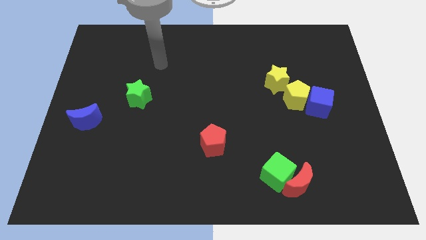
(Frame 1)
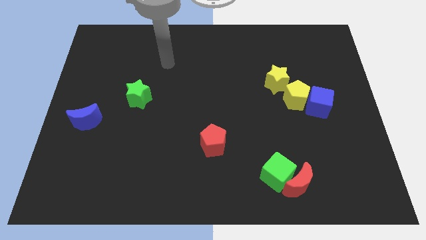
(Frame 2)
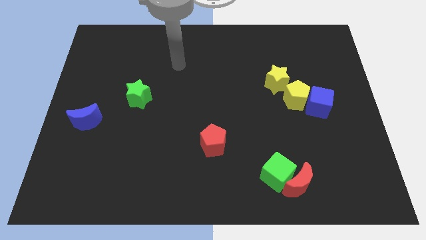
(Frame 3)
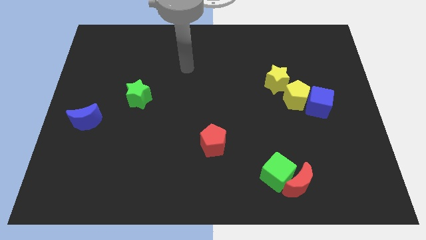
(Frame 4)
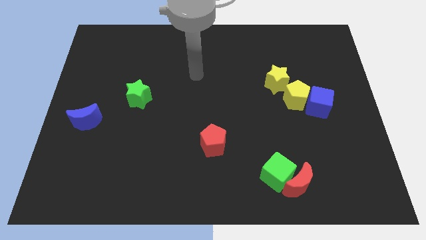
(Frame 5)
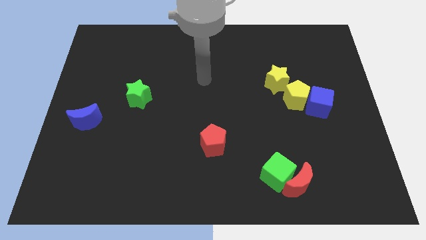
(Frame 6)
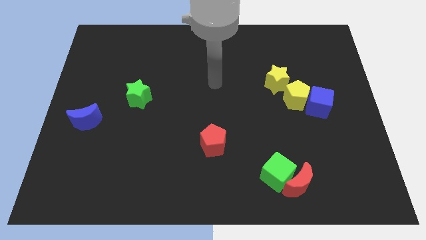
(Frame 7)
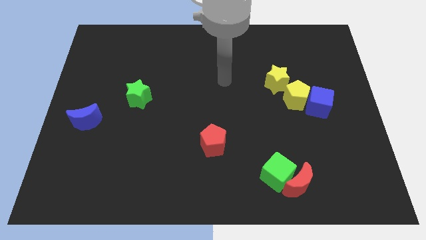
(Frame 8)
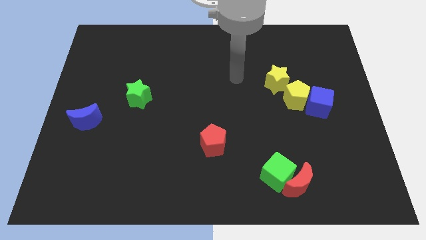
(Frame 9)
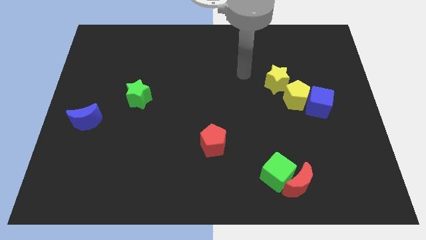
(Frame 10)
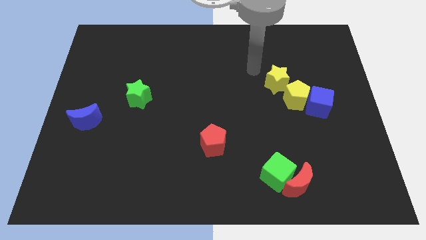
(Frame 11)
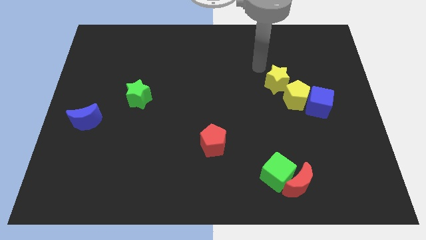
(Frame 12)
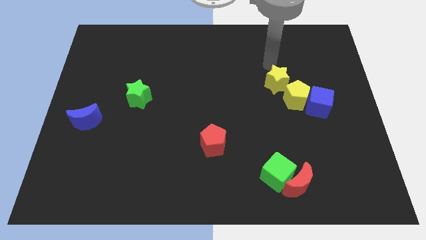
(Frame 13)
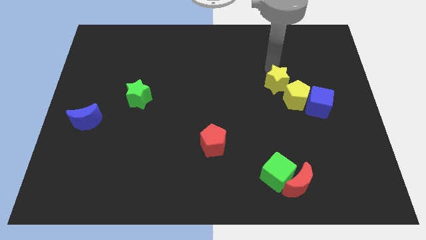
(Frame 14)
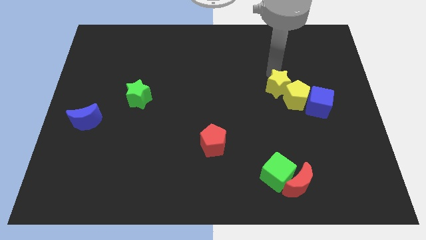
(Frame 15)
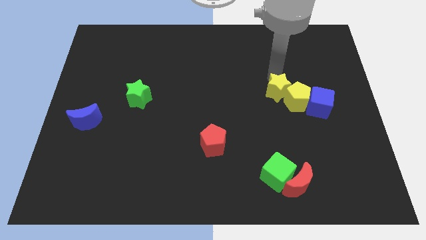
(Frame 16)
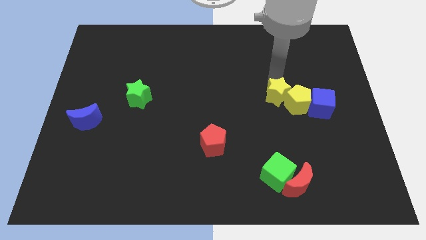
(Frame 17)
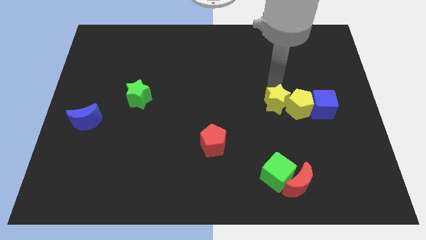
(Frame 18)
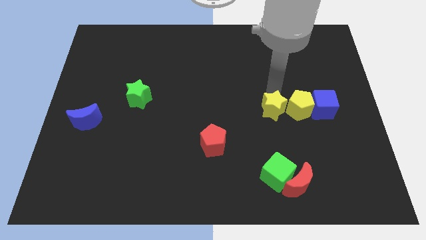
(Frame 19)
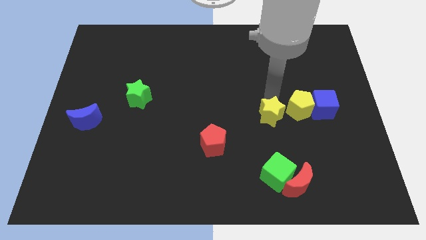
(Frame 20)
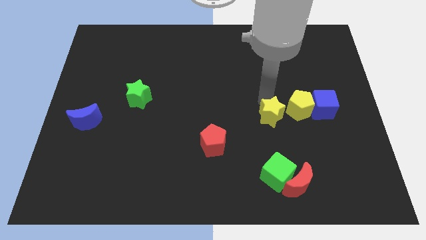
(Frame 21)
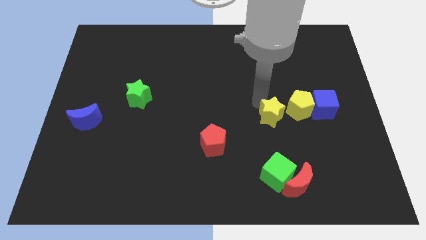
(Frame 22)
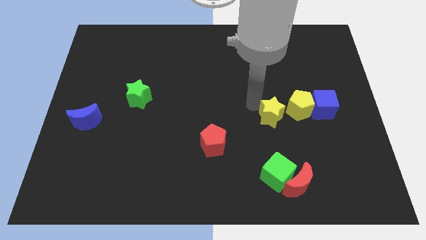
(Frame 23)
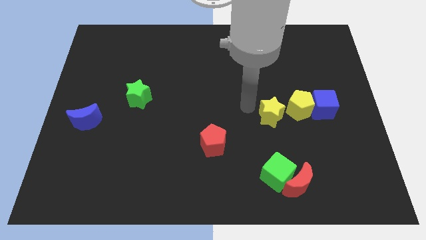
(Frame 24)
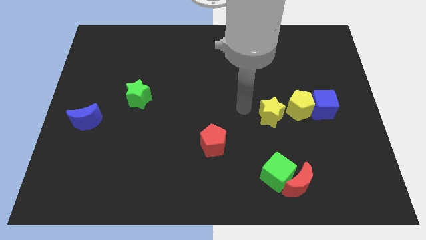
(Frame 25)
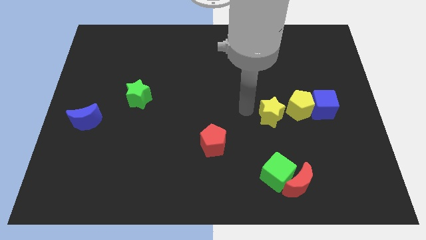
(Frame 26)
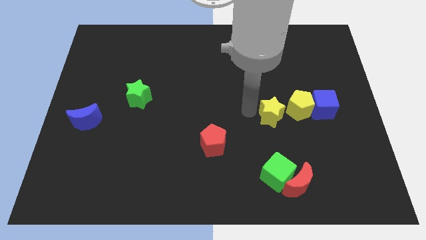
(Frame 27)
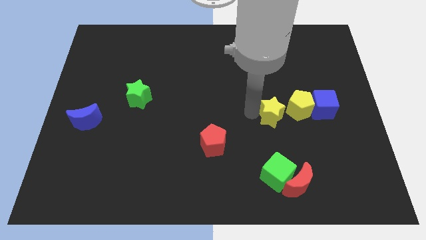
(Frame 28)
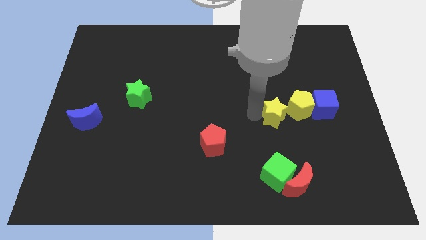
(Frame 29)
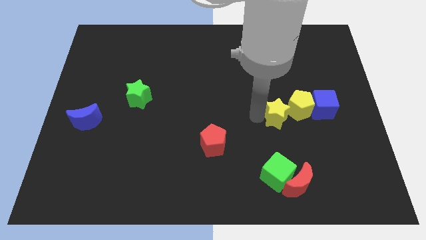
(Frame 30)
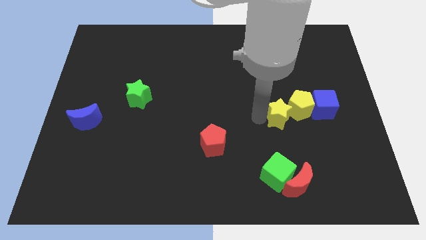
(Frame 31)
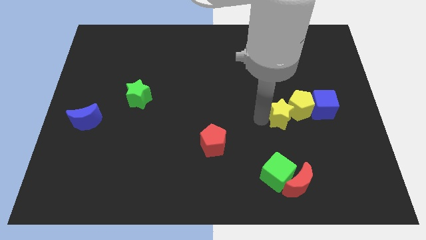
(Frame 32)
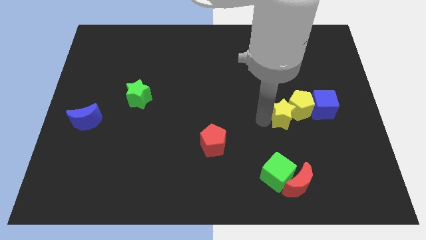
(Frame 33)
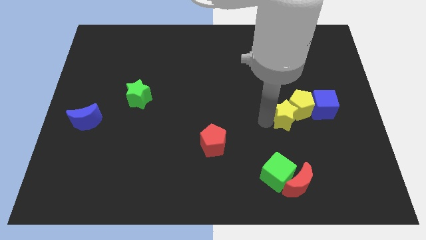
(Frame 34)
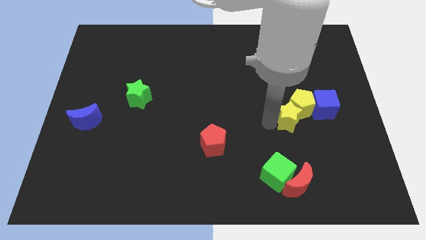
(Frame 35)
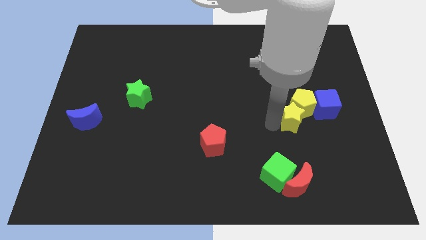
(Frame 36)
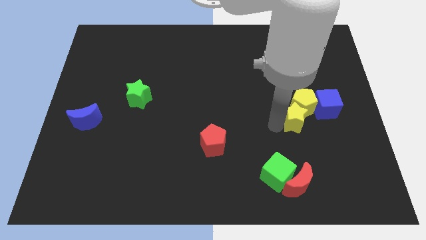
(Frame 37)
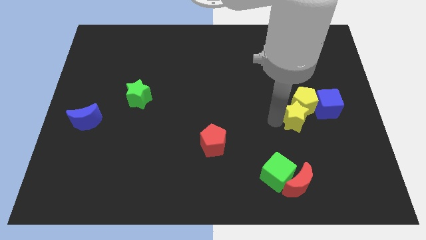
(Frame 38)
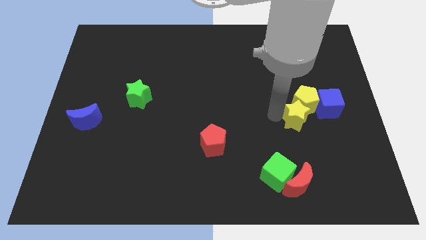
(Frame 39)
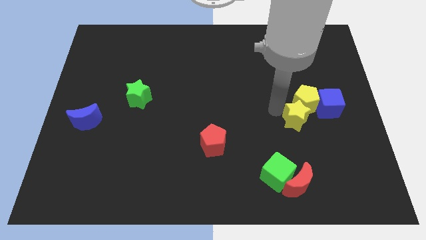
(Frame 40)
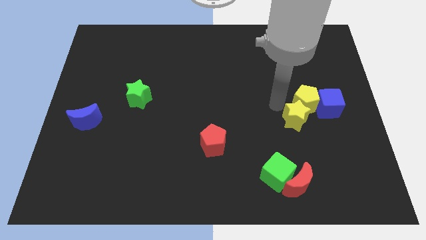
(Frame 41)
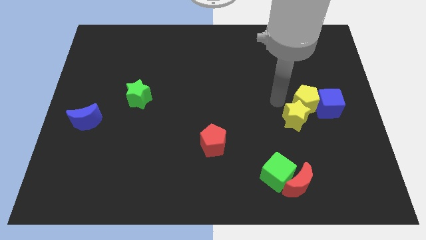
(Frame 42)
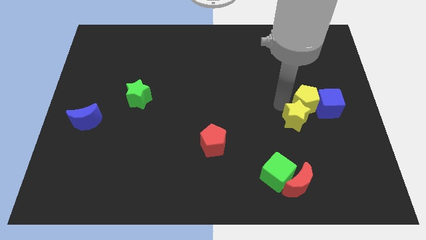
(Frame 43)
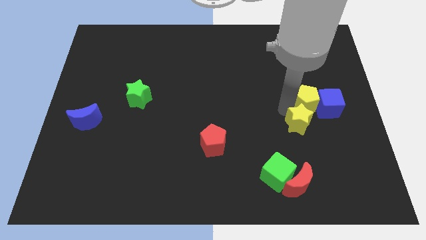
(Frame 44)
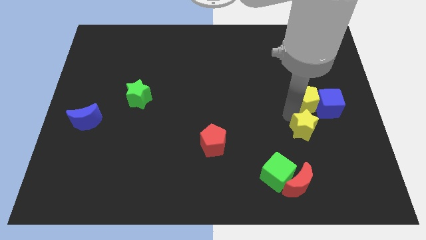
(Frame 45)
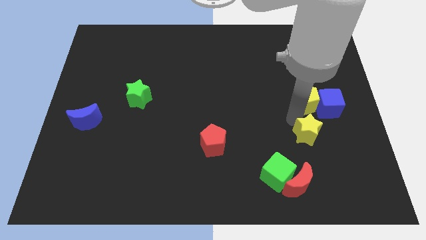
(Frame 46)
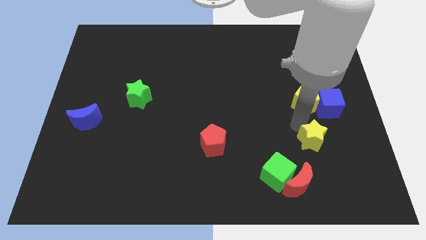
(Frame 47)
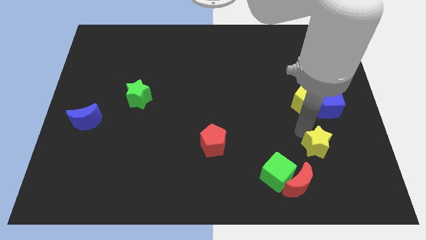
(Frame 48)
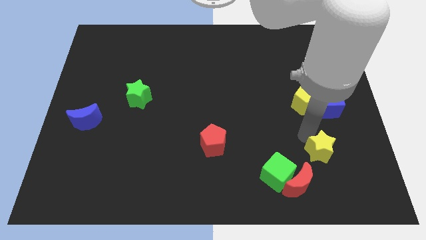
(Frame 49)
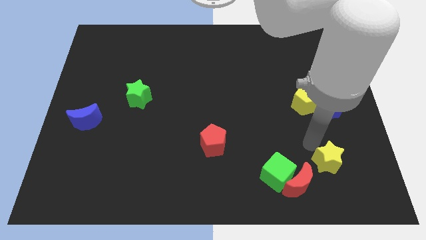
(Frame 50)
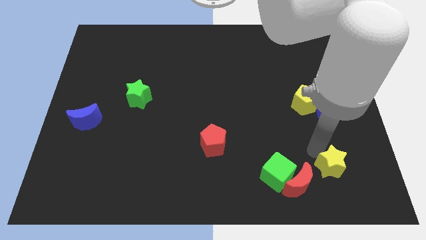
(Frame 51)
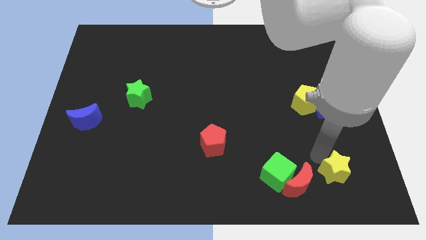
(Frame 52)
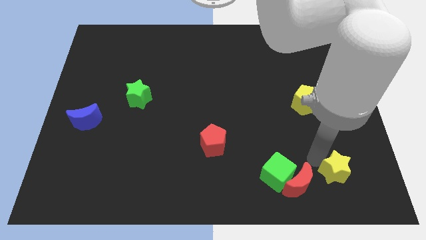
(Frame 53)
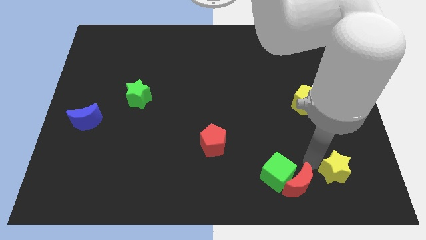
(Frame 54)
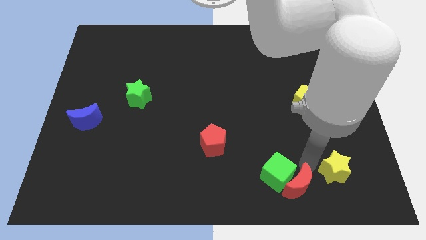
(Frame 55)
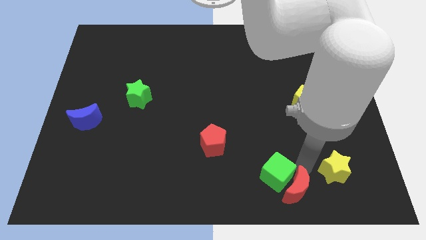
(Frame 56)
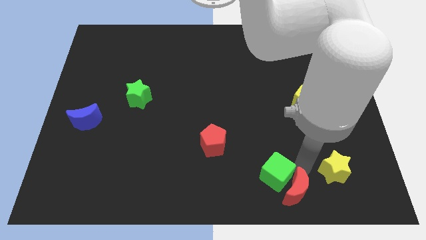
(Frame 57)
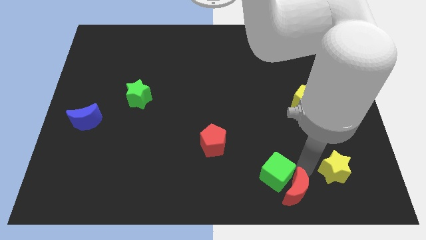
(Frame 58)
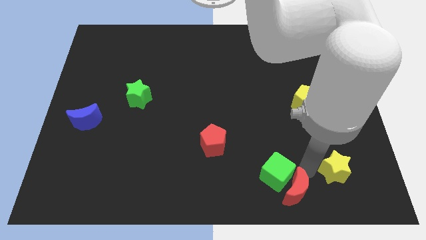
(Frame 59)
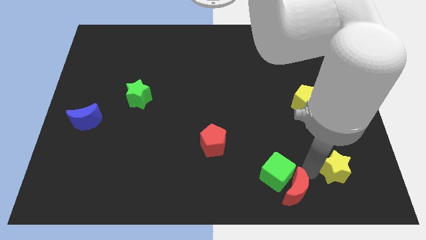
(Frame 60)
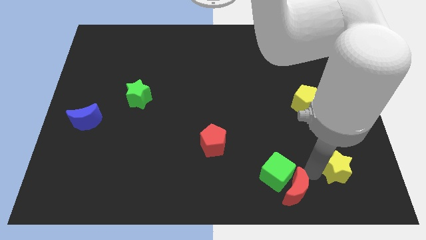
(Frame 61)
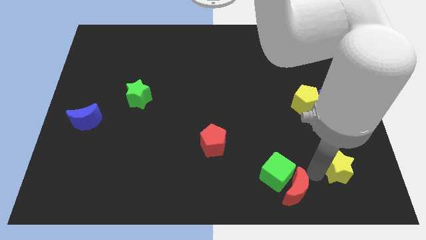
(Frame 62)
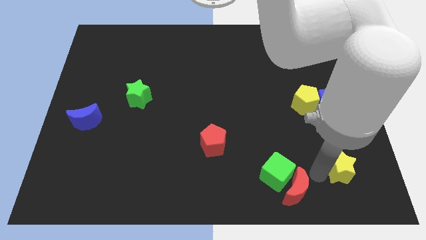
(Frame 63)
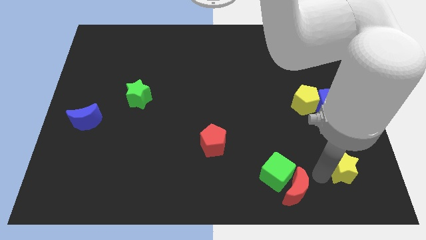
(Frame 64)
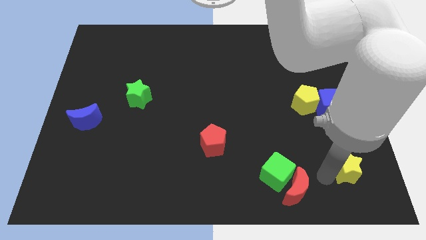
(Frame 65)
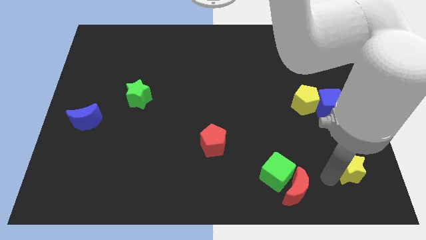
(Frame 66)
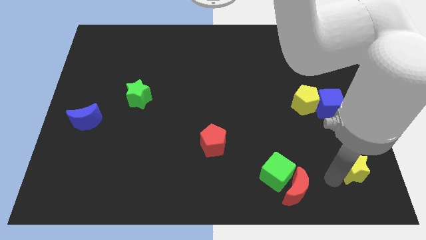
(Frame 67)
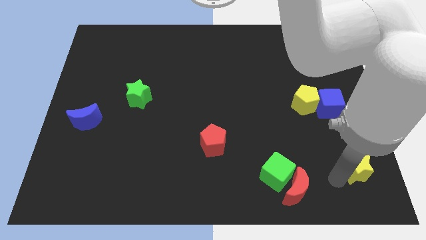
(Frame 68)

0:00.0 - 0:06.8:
push the yellow star to the bottom right corner
